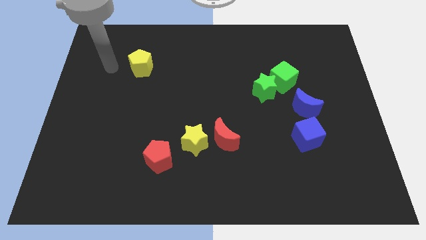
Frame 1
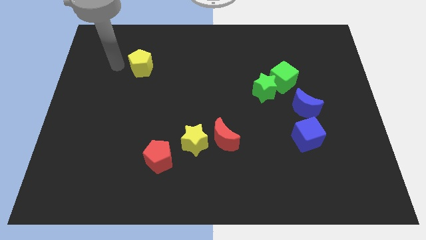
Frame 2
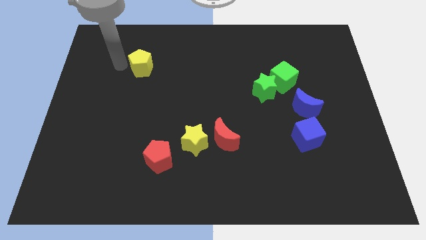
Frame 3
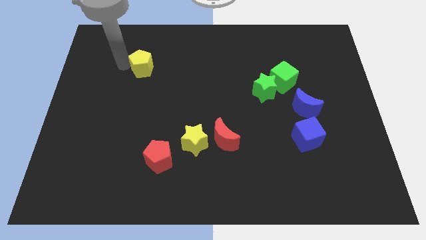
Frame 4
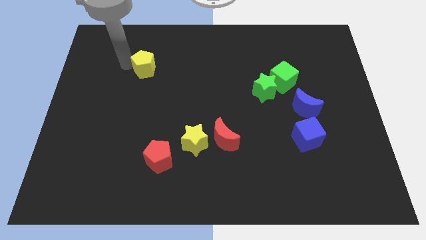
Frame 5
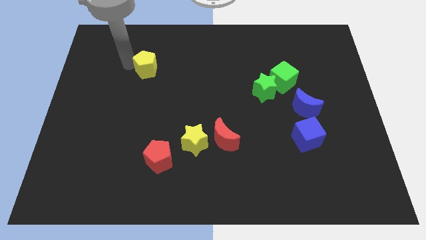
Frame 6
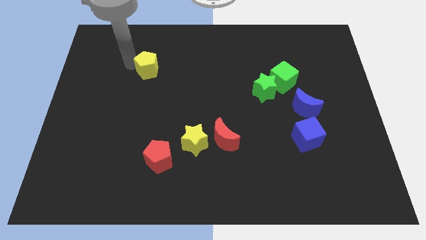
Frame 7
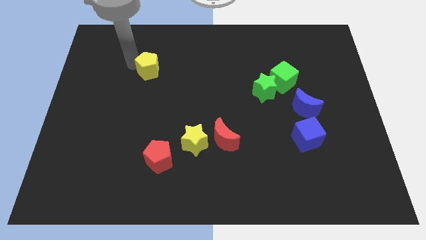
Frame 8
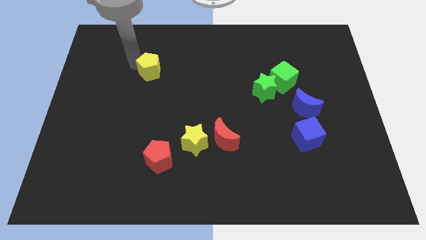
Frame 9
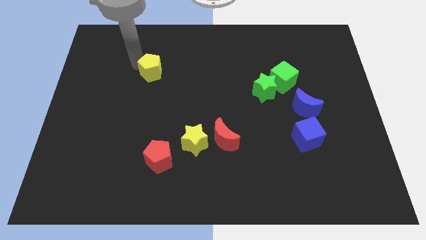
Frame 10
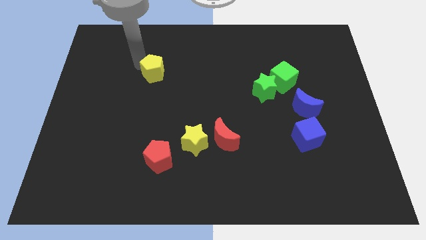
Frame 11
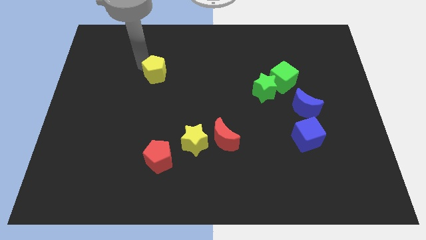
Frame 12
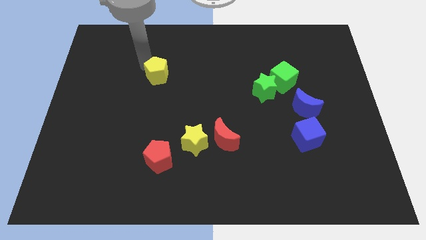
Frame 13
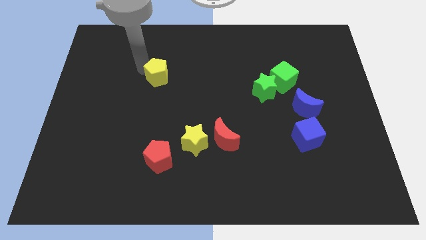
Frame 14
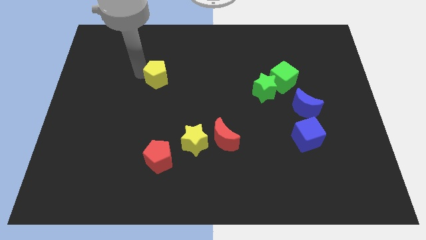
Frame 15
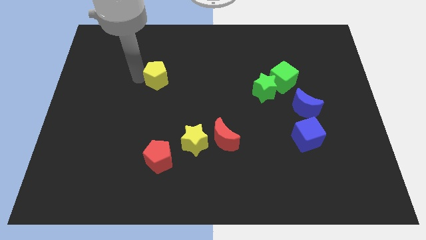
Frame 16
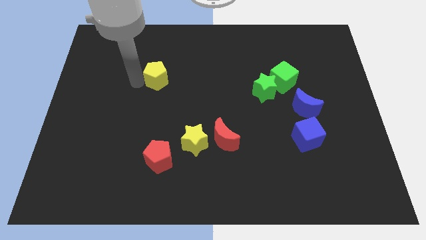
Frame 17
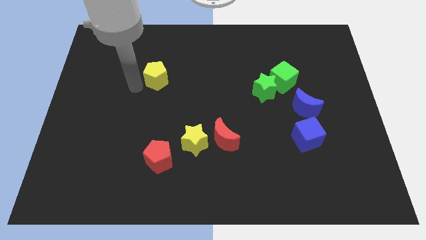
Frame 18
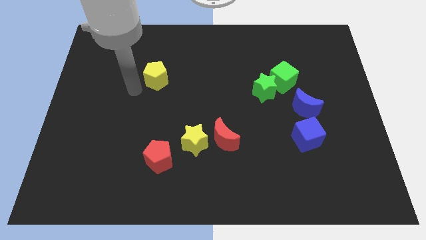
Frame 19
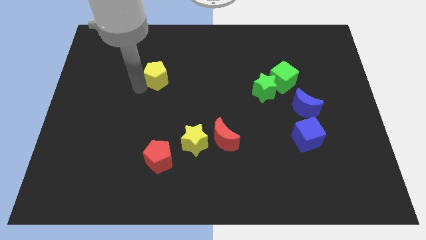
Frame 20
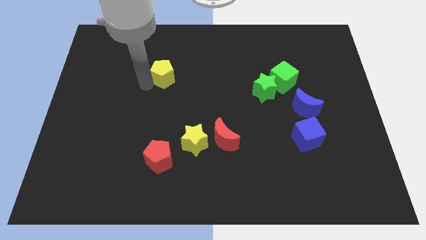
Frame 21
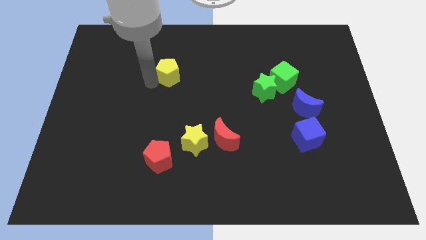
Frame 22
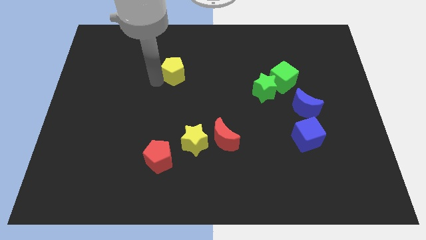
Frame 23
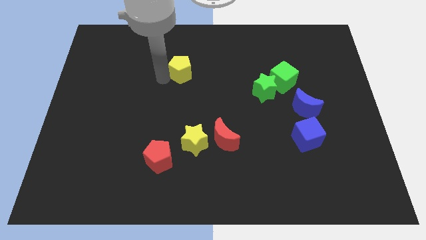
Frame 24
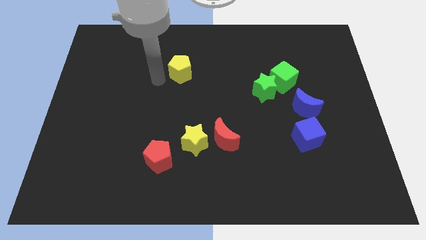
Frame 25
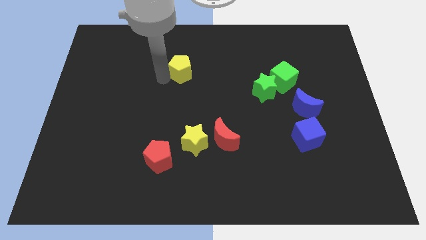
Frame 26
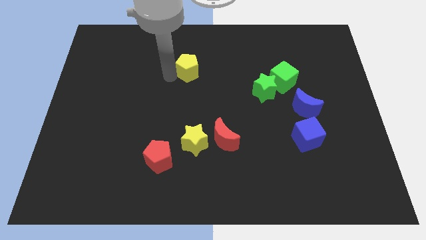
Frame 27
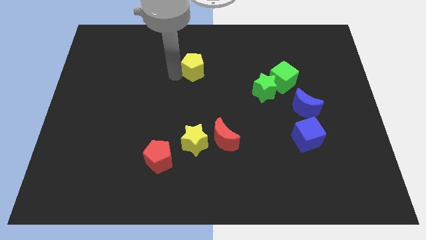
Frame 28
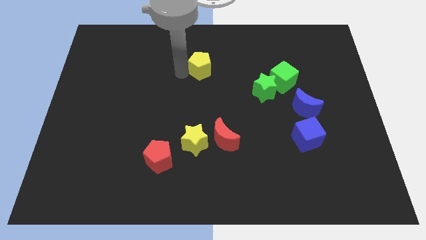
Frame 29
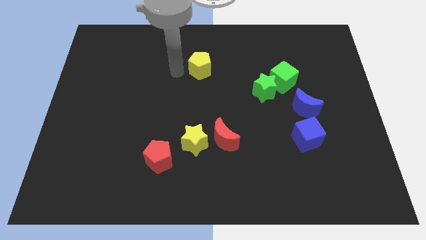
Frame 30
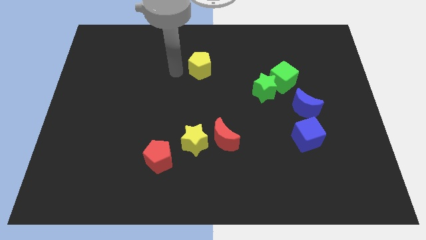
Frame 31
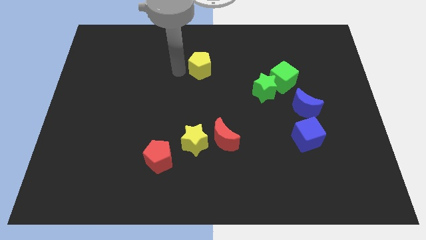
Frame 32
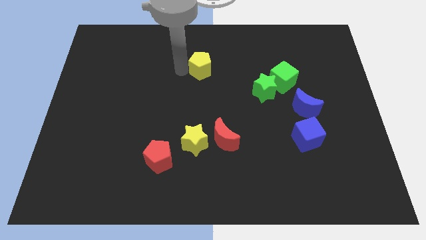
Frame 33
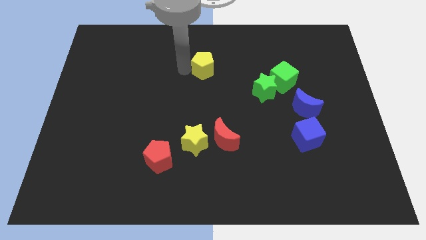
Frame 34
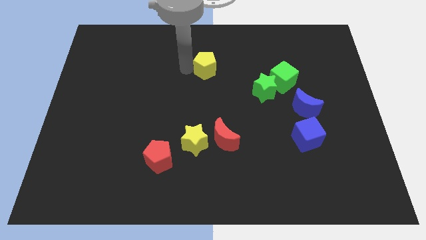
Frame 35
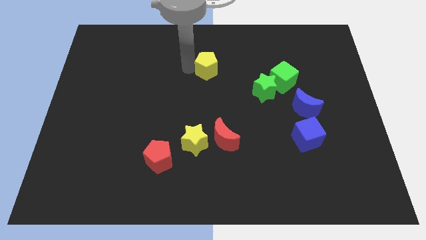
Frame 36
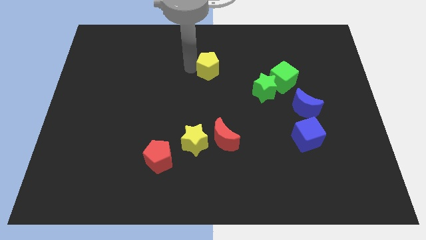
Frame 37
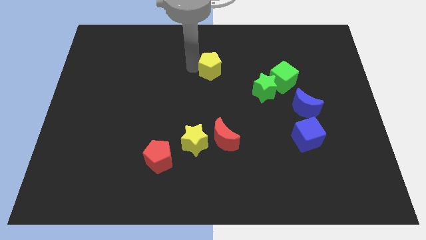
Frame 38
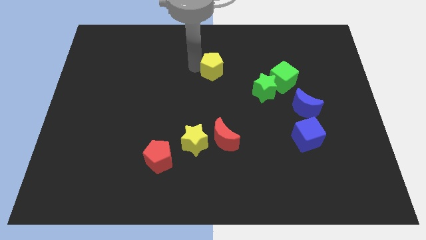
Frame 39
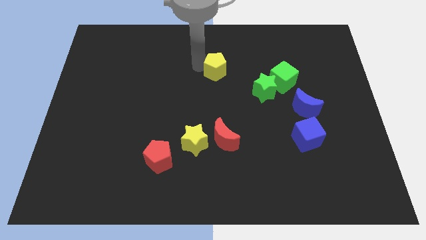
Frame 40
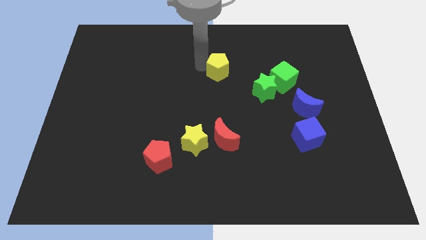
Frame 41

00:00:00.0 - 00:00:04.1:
move the yellow pentagon to the right

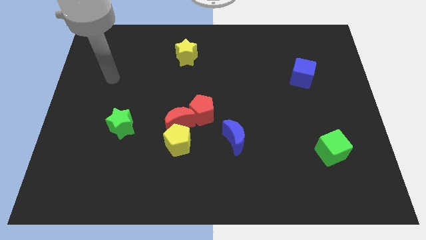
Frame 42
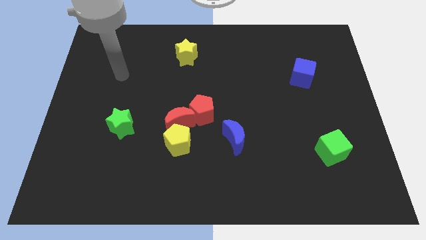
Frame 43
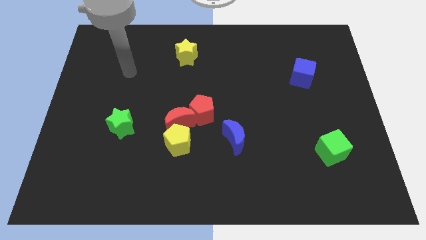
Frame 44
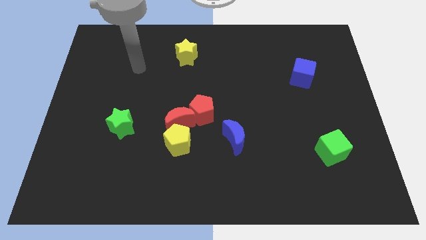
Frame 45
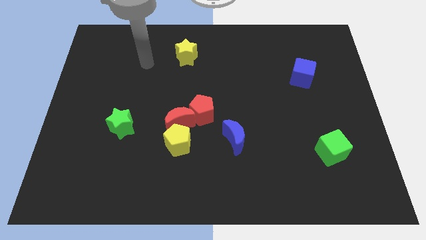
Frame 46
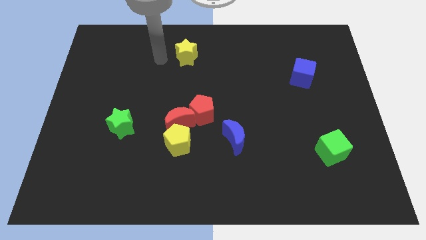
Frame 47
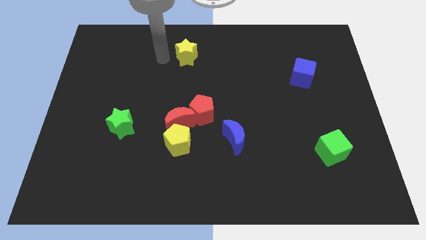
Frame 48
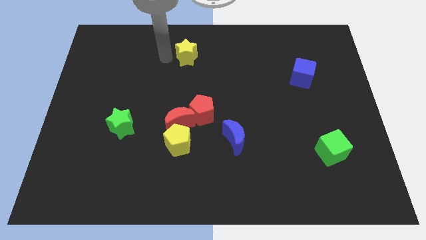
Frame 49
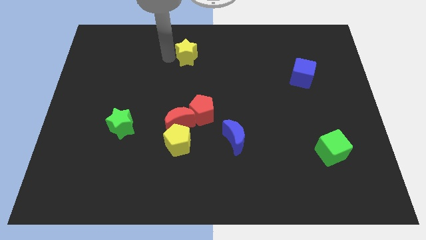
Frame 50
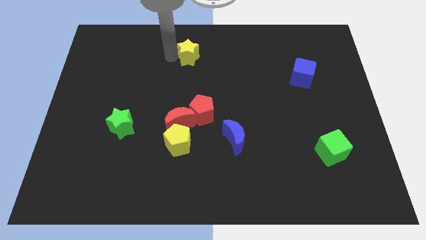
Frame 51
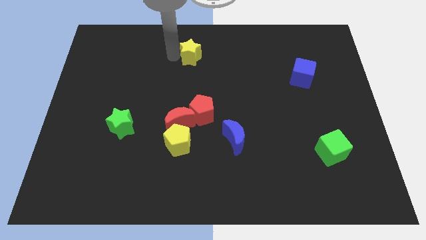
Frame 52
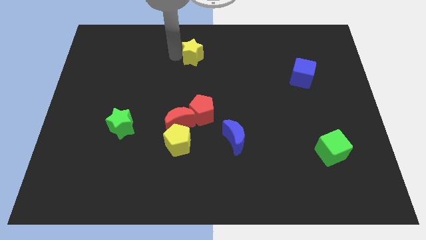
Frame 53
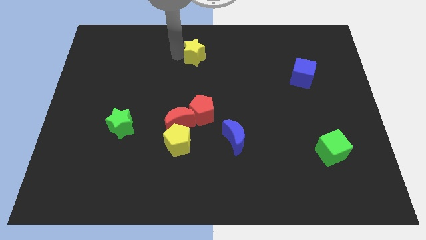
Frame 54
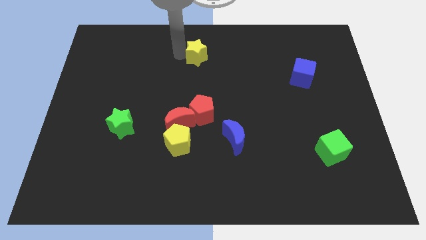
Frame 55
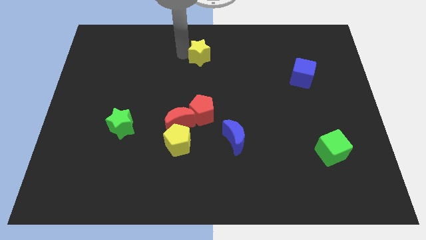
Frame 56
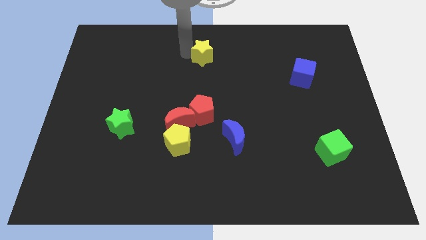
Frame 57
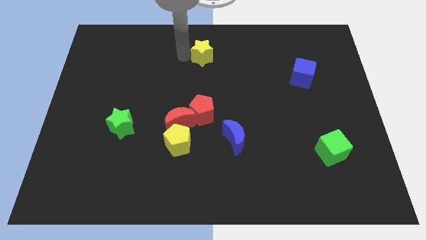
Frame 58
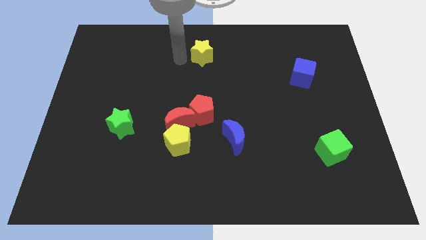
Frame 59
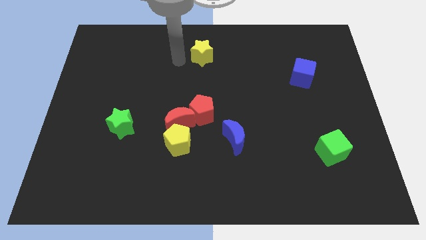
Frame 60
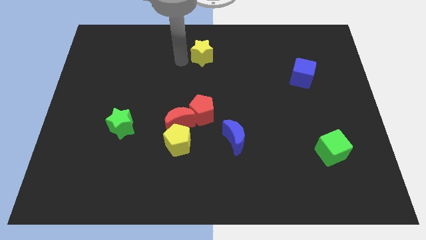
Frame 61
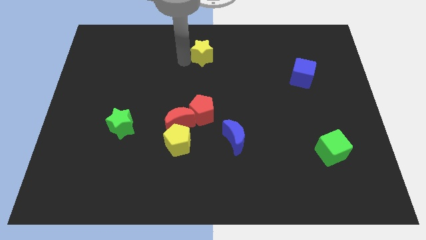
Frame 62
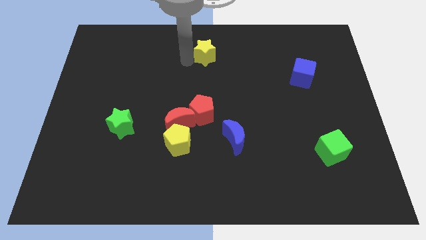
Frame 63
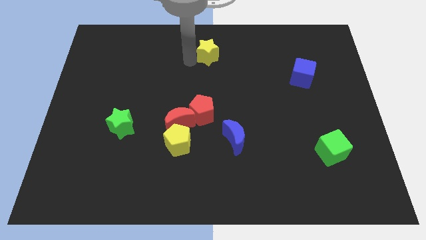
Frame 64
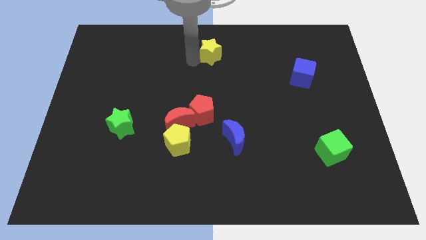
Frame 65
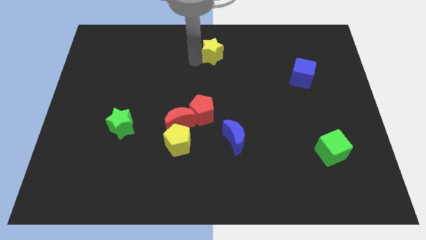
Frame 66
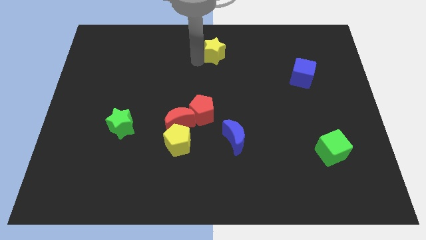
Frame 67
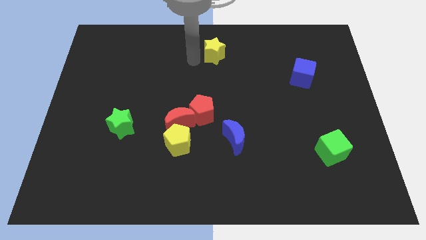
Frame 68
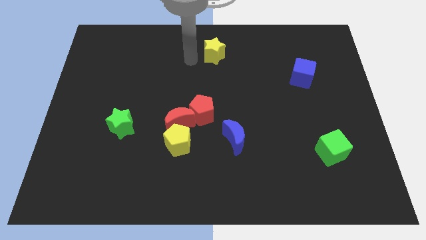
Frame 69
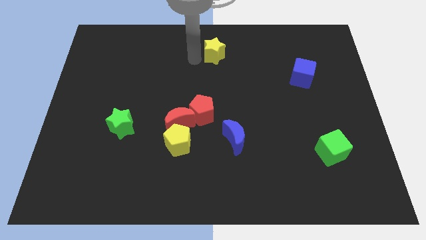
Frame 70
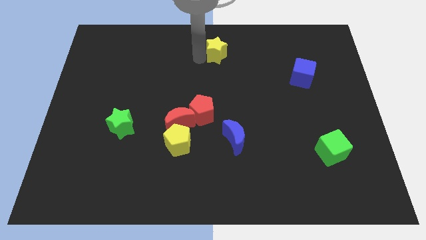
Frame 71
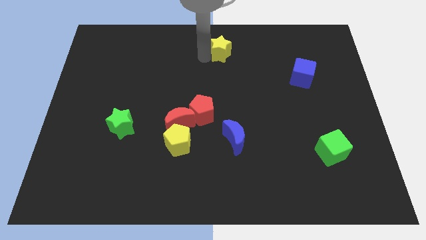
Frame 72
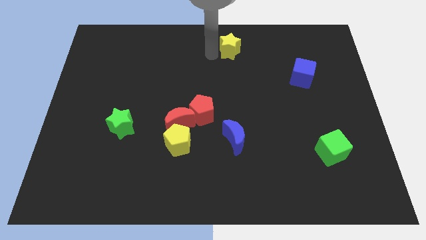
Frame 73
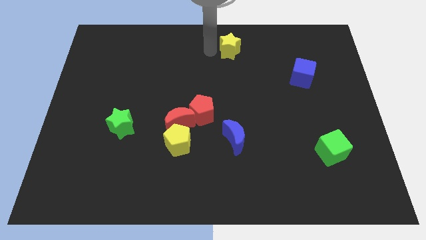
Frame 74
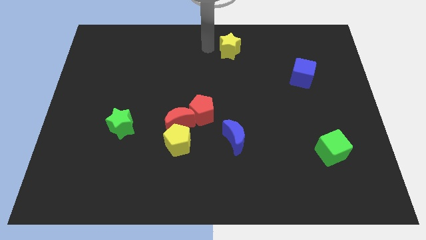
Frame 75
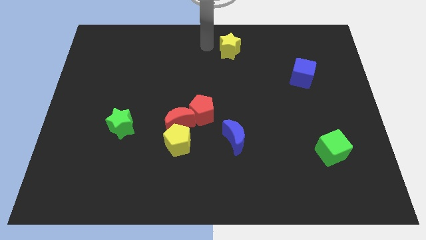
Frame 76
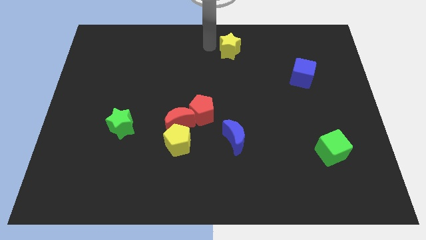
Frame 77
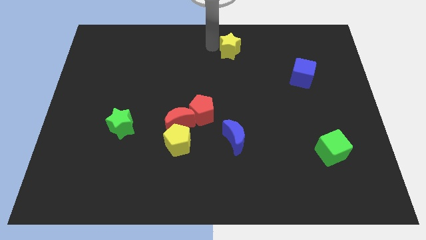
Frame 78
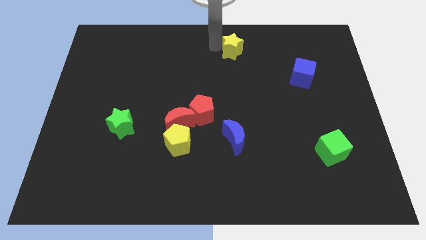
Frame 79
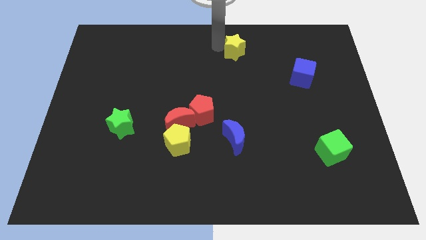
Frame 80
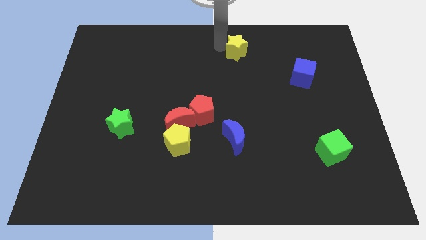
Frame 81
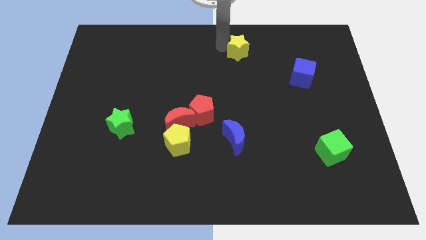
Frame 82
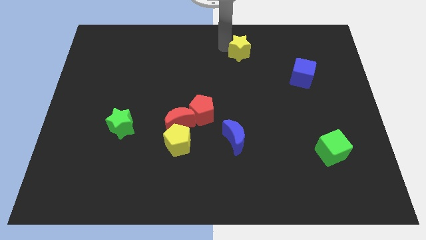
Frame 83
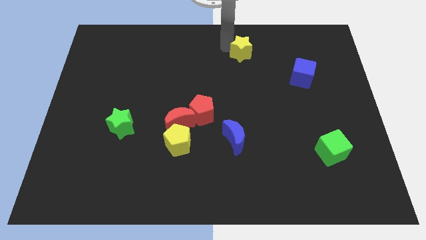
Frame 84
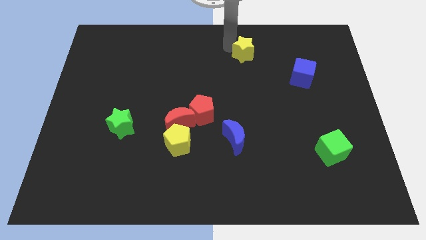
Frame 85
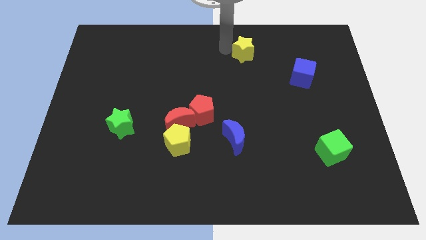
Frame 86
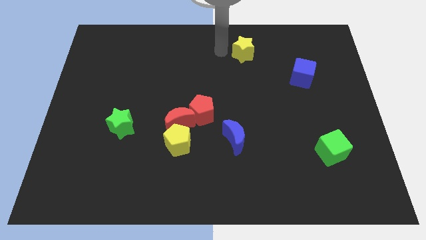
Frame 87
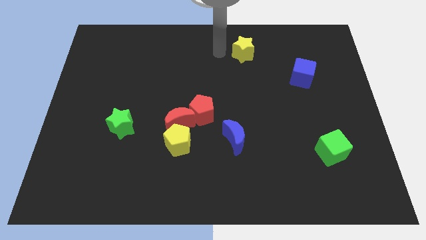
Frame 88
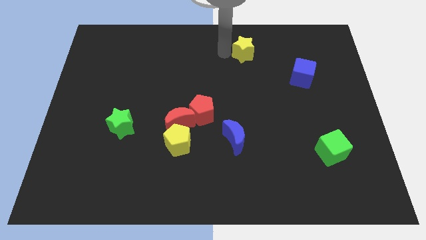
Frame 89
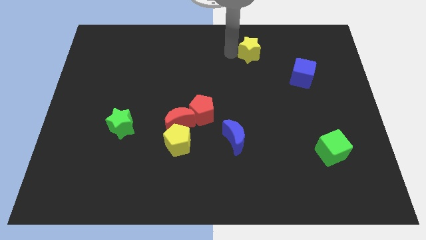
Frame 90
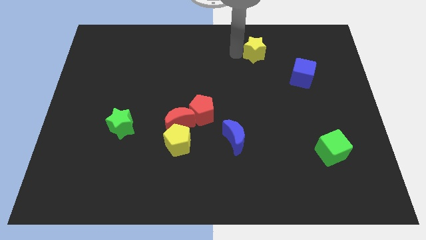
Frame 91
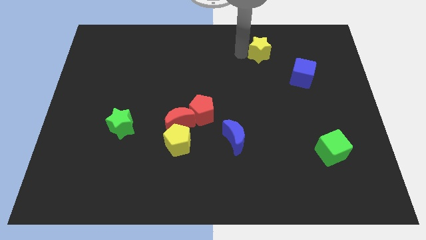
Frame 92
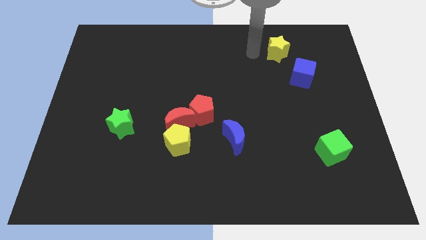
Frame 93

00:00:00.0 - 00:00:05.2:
move the yellow star to the right
